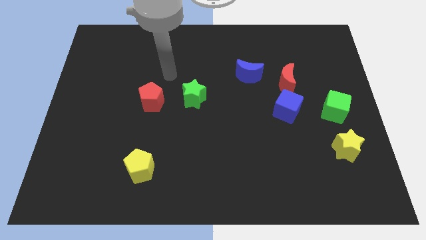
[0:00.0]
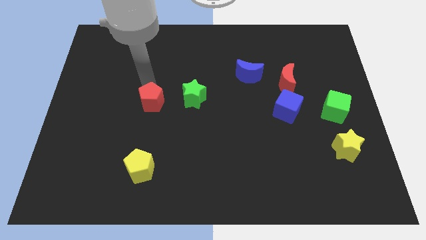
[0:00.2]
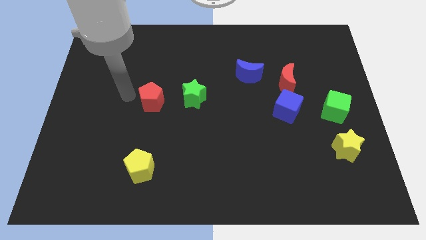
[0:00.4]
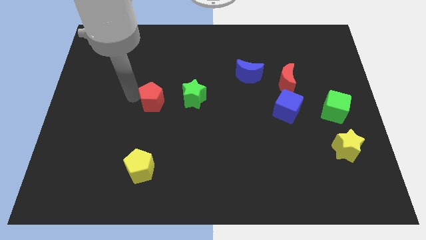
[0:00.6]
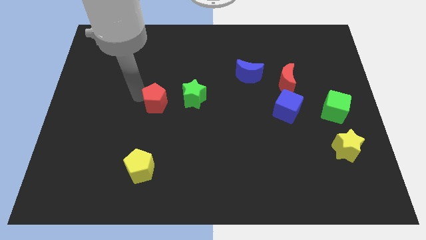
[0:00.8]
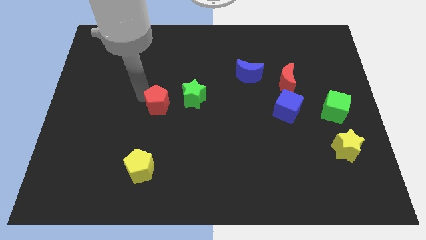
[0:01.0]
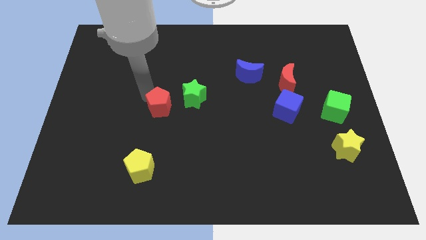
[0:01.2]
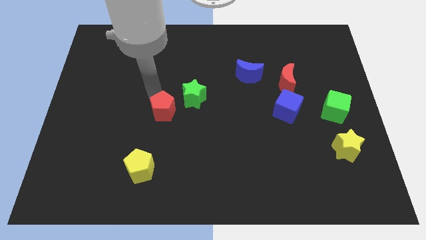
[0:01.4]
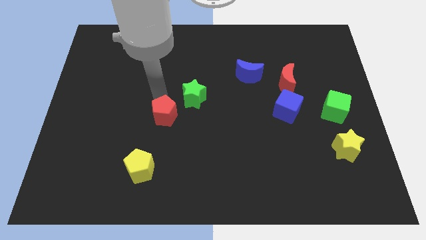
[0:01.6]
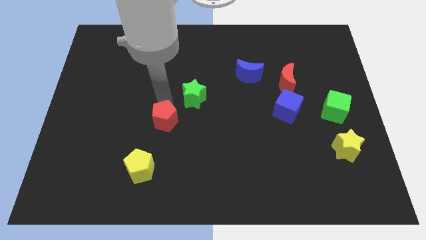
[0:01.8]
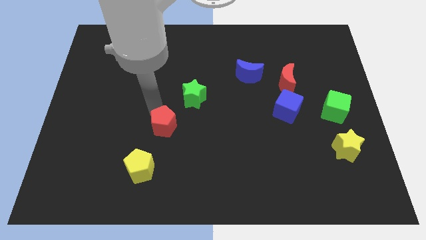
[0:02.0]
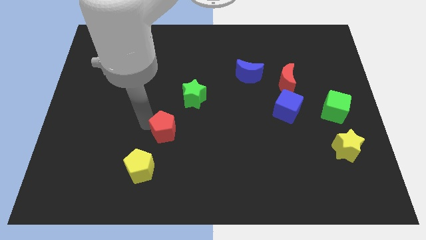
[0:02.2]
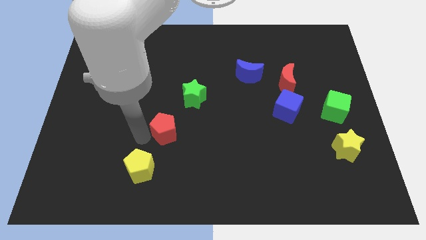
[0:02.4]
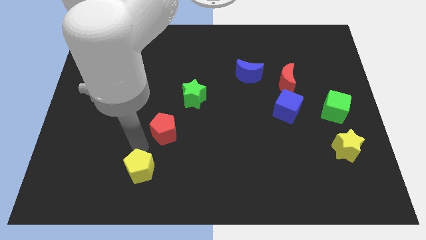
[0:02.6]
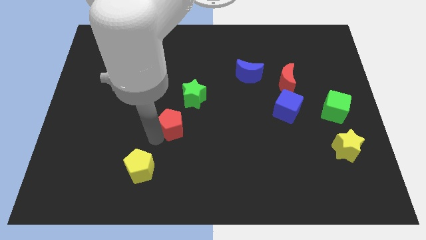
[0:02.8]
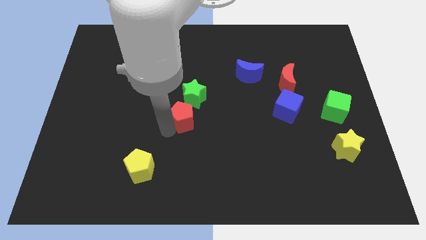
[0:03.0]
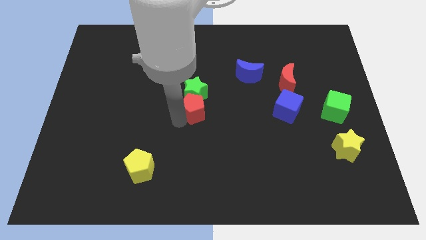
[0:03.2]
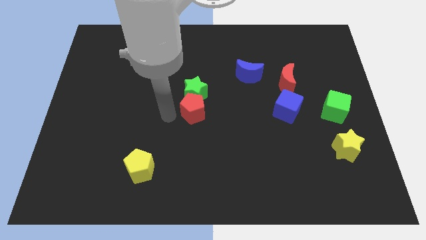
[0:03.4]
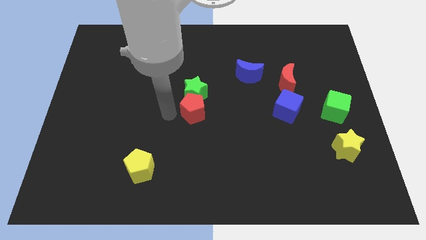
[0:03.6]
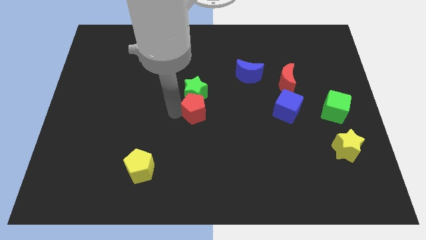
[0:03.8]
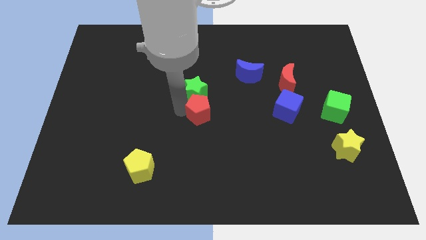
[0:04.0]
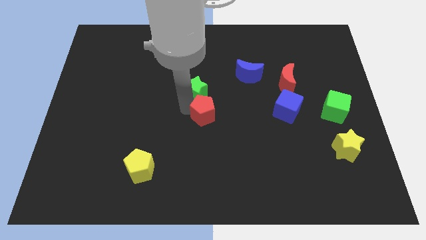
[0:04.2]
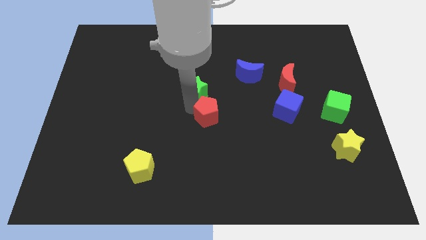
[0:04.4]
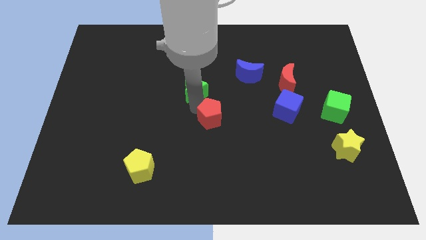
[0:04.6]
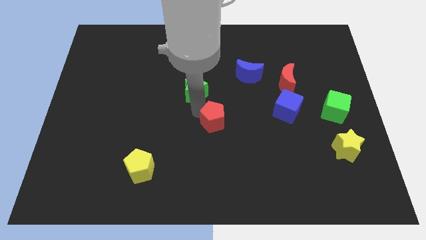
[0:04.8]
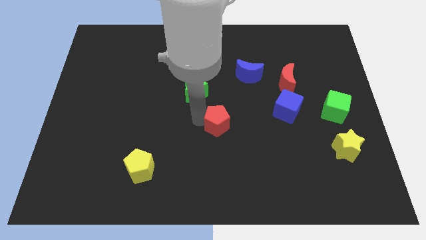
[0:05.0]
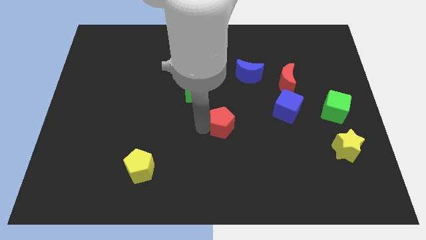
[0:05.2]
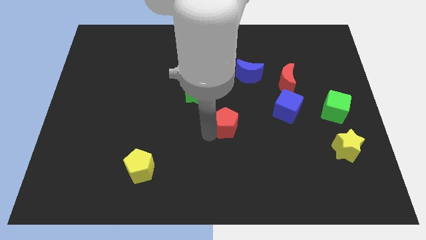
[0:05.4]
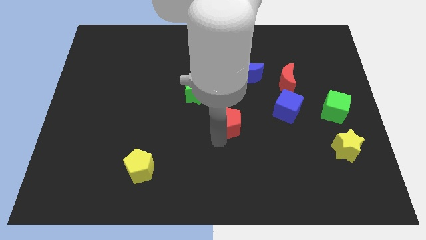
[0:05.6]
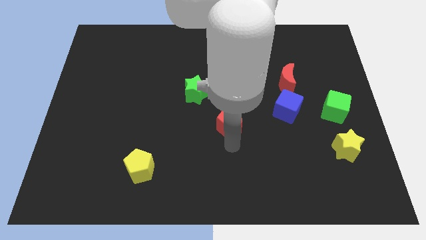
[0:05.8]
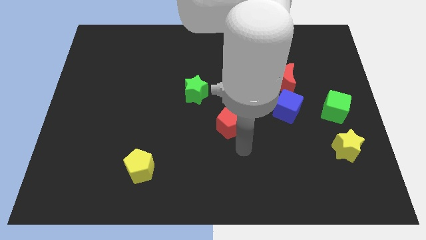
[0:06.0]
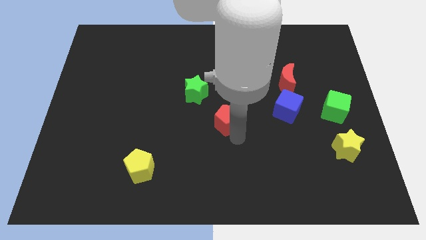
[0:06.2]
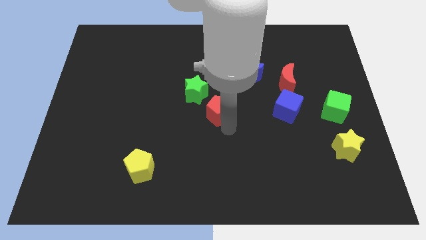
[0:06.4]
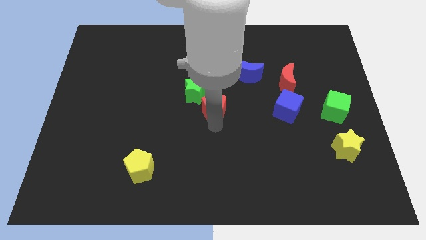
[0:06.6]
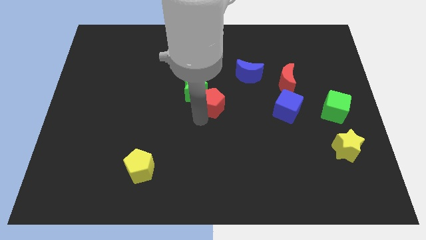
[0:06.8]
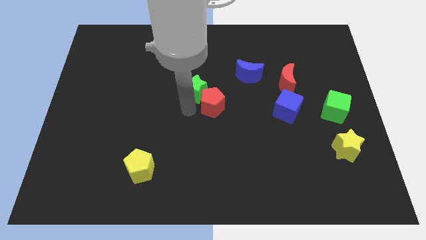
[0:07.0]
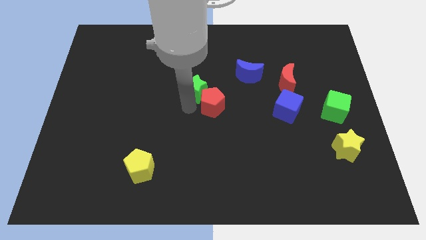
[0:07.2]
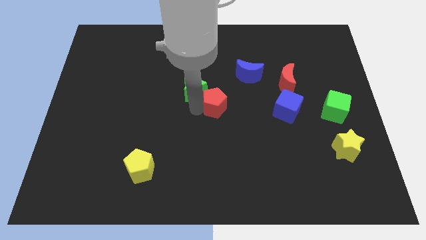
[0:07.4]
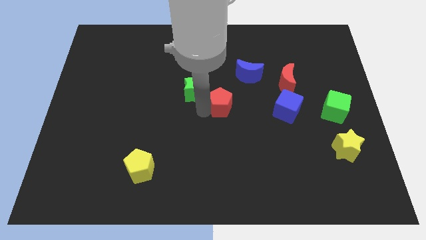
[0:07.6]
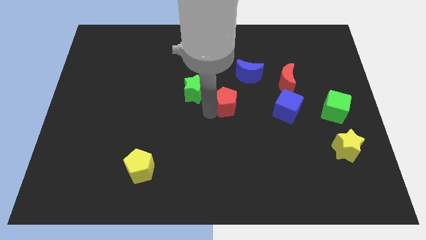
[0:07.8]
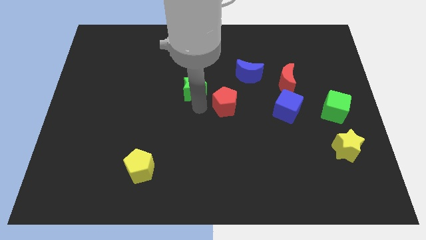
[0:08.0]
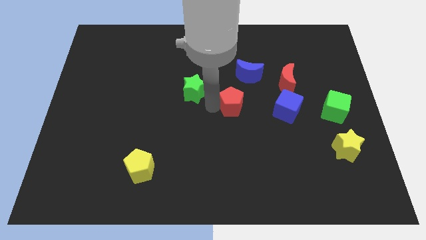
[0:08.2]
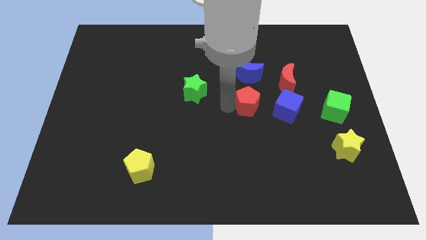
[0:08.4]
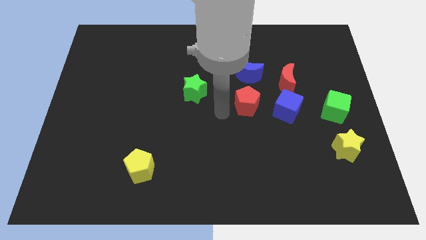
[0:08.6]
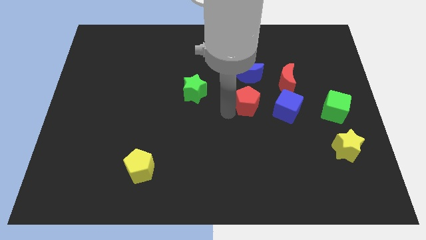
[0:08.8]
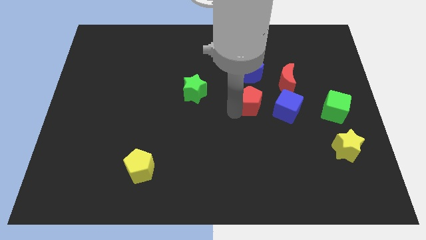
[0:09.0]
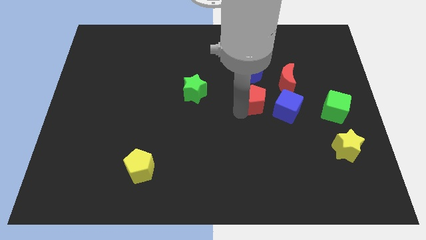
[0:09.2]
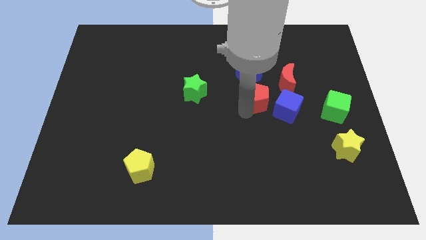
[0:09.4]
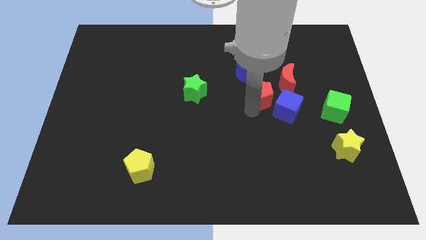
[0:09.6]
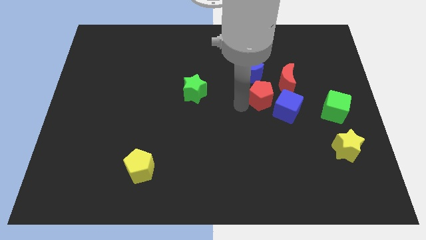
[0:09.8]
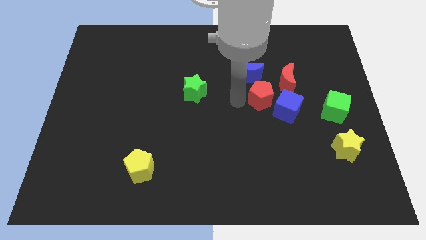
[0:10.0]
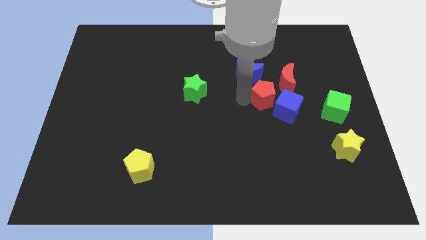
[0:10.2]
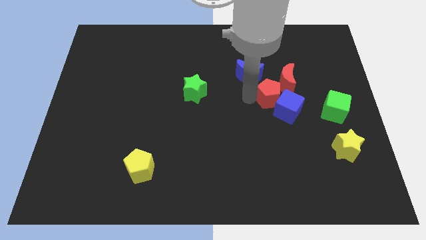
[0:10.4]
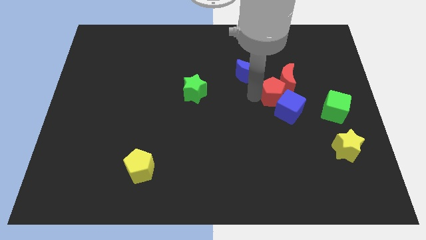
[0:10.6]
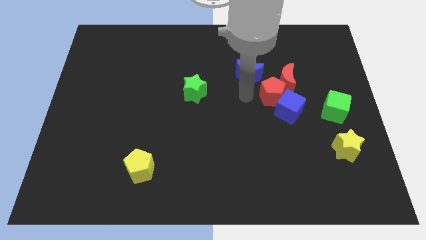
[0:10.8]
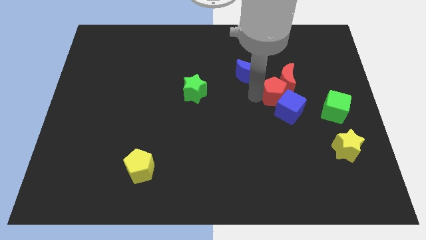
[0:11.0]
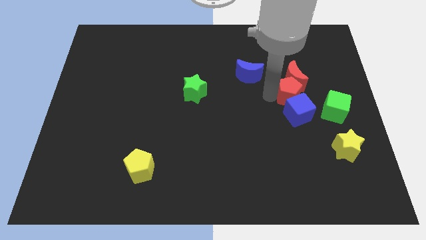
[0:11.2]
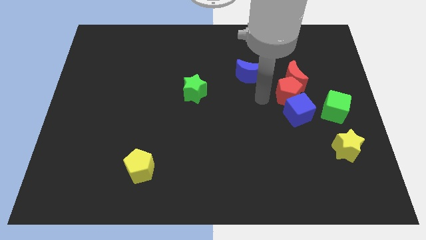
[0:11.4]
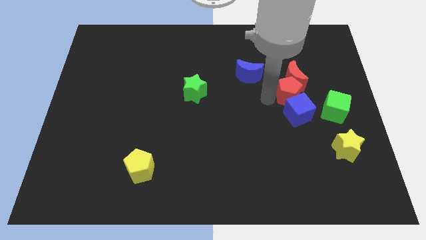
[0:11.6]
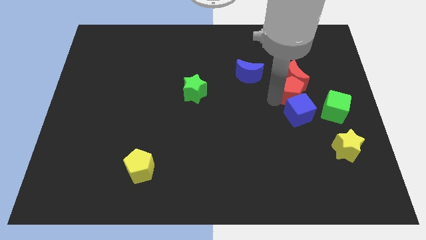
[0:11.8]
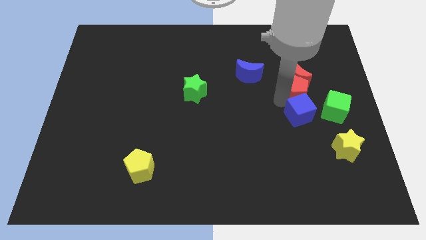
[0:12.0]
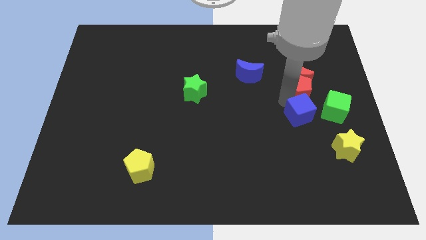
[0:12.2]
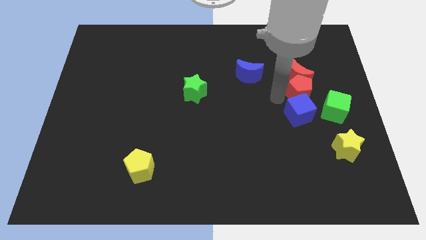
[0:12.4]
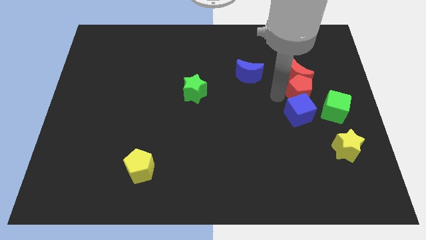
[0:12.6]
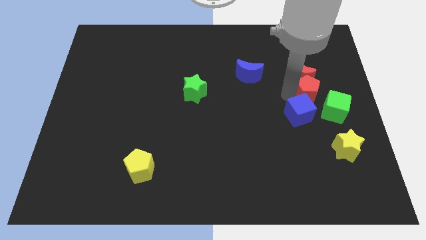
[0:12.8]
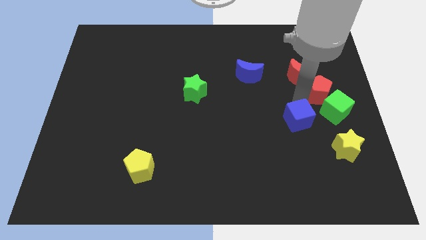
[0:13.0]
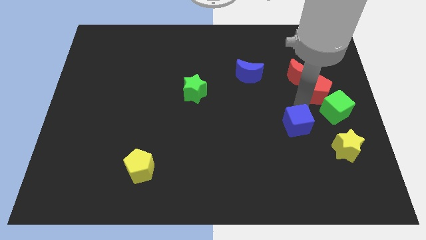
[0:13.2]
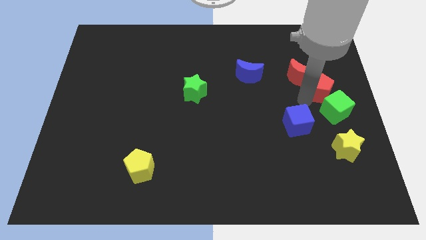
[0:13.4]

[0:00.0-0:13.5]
put the red pentagon right of the red moon

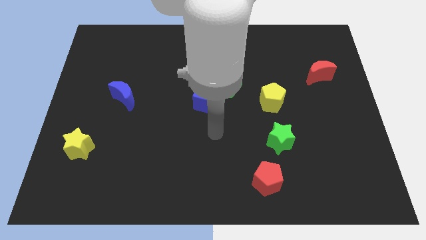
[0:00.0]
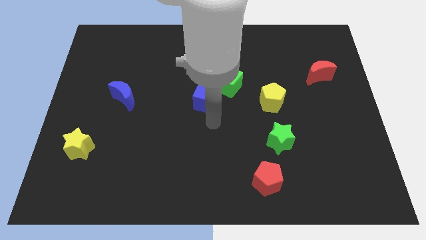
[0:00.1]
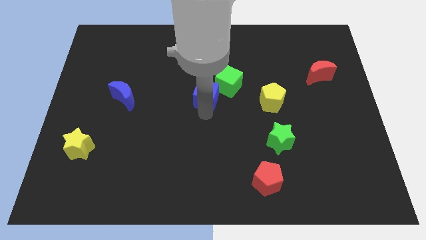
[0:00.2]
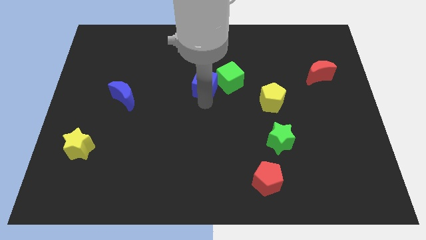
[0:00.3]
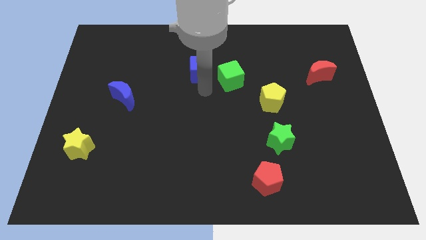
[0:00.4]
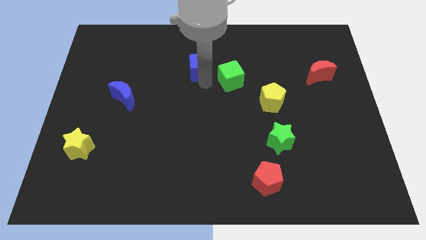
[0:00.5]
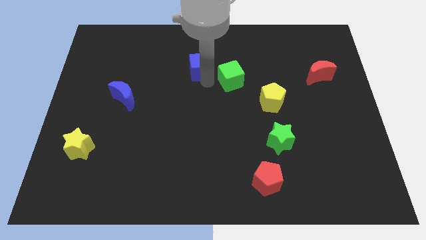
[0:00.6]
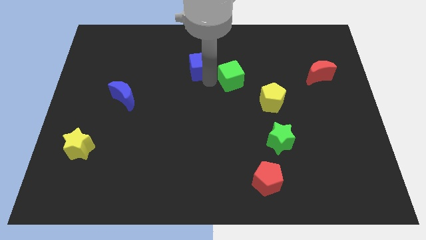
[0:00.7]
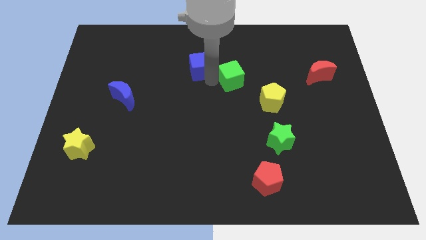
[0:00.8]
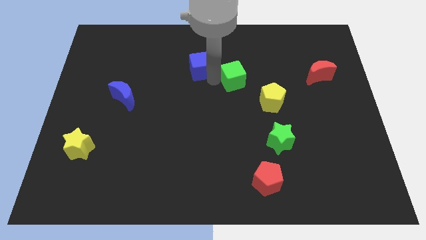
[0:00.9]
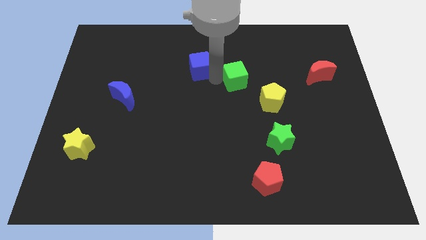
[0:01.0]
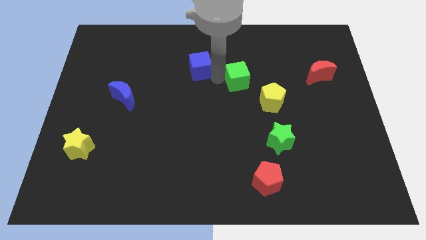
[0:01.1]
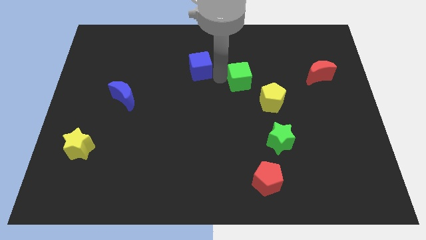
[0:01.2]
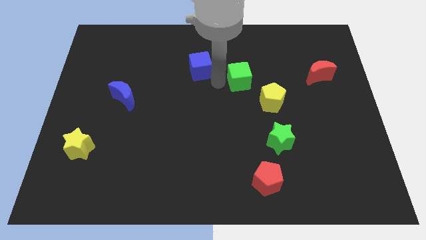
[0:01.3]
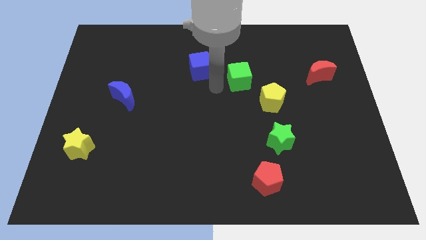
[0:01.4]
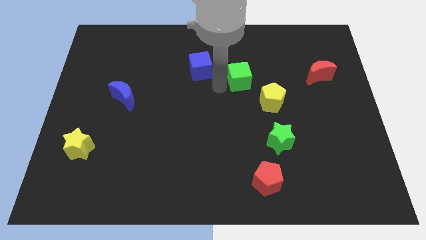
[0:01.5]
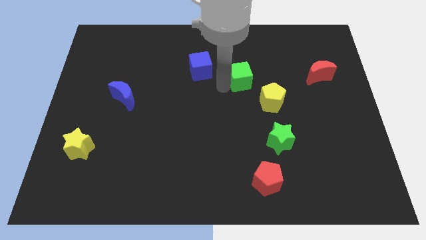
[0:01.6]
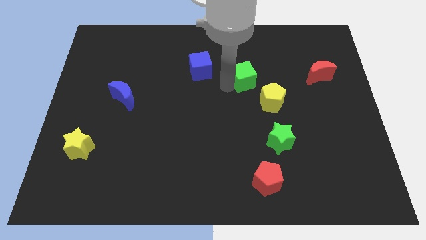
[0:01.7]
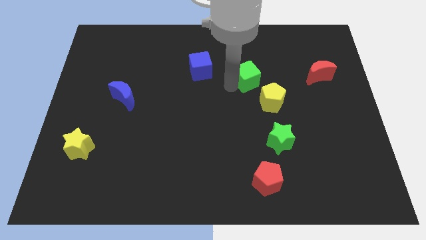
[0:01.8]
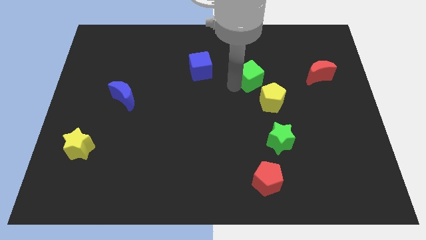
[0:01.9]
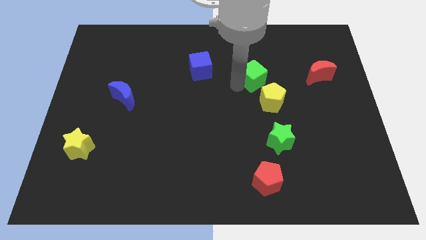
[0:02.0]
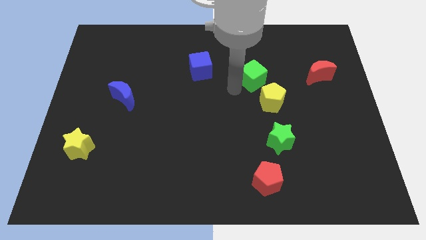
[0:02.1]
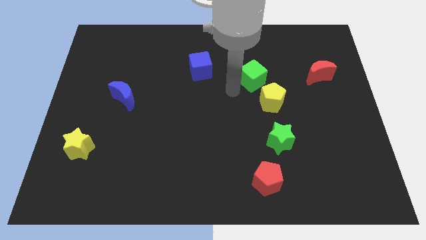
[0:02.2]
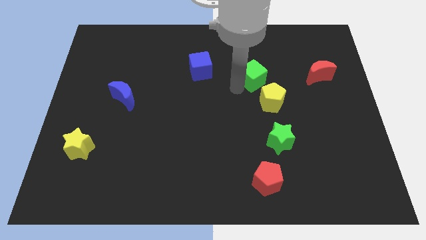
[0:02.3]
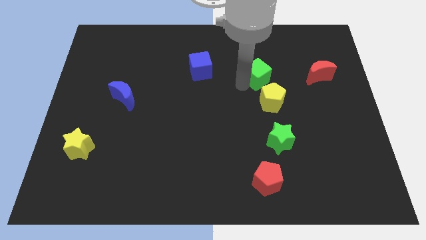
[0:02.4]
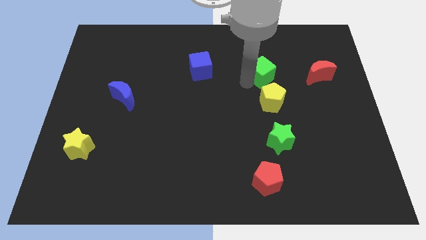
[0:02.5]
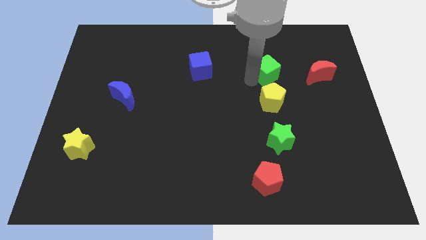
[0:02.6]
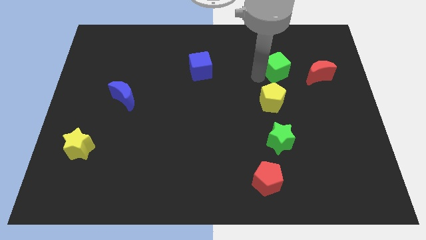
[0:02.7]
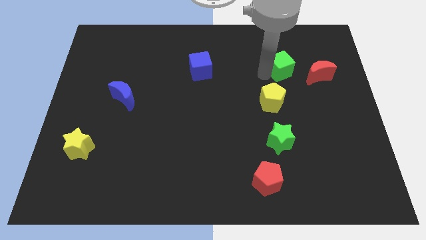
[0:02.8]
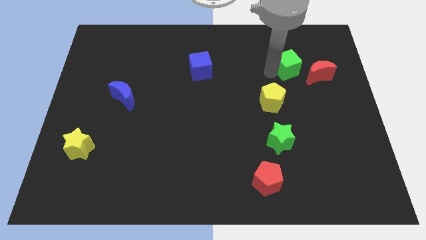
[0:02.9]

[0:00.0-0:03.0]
move the green cube to the top left side of the red moon
